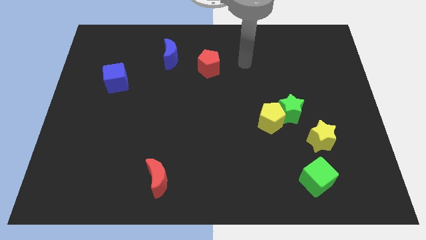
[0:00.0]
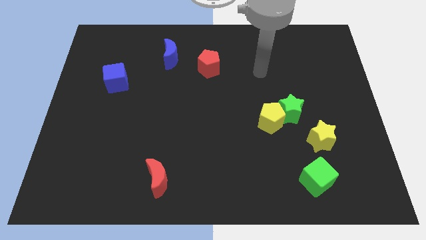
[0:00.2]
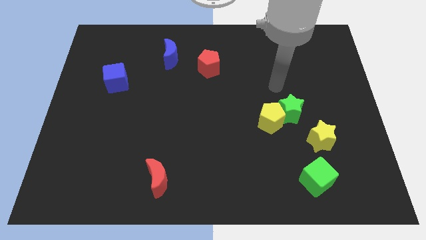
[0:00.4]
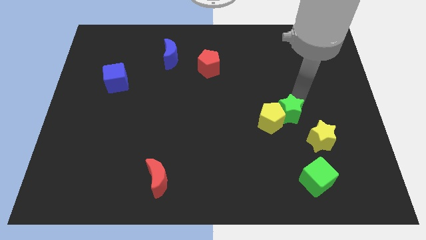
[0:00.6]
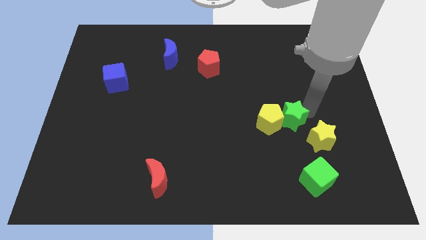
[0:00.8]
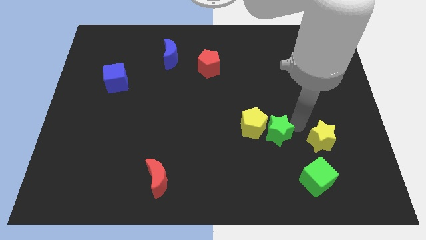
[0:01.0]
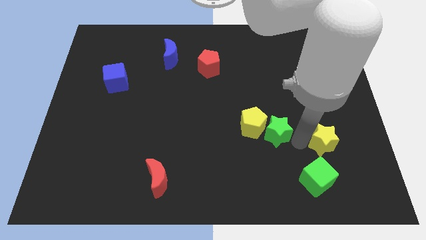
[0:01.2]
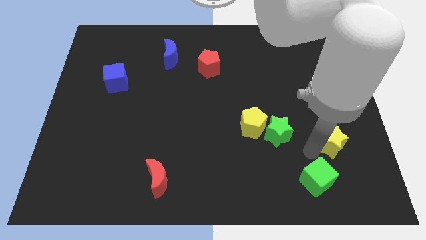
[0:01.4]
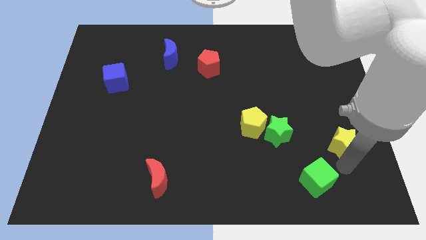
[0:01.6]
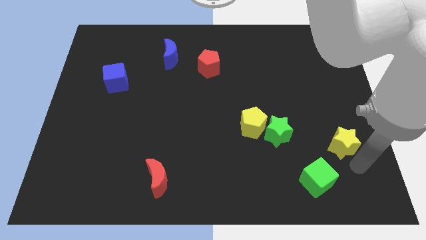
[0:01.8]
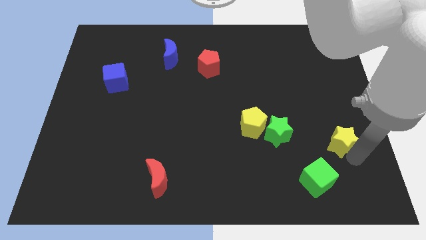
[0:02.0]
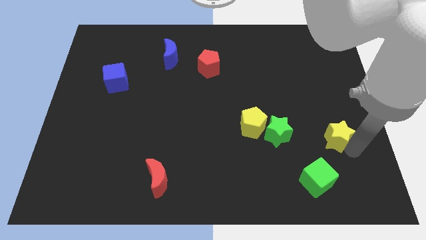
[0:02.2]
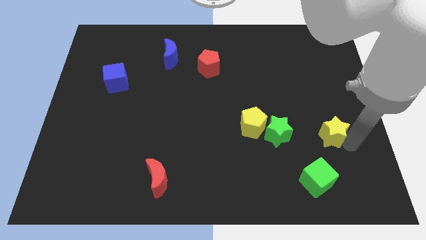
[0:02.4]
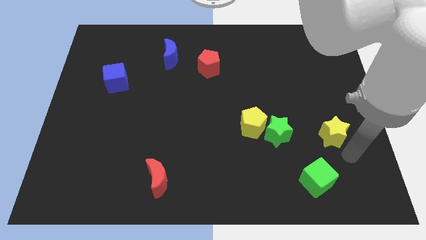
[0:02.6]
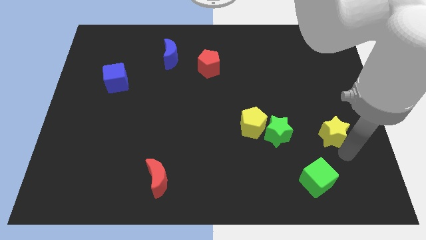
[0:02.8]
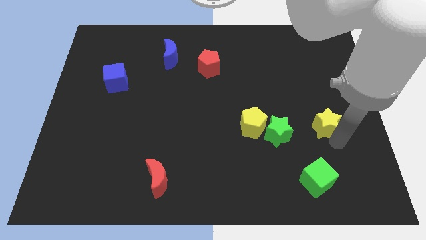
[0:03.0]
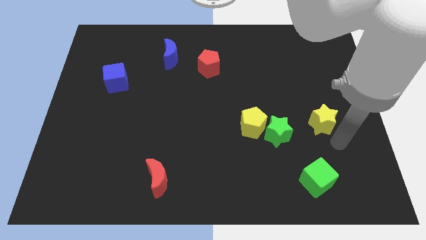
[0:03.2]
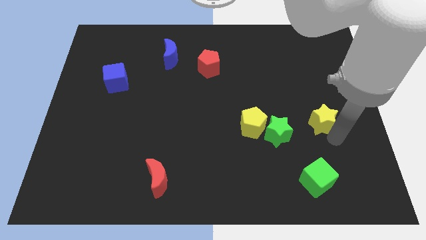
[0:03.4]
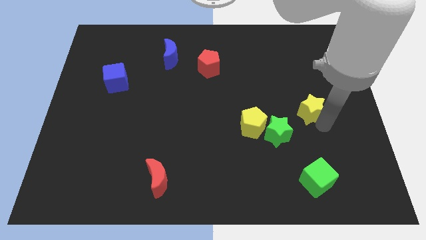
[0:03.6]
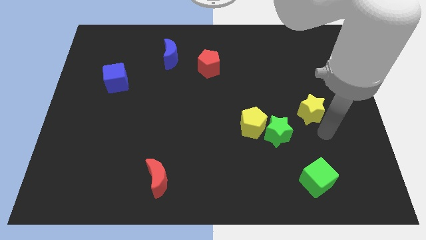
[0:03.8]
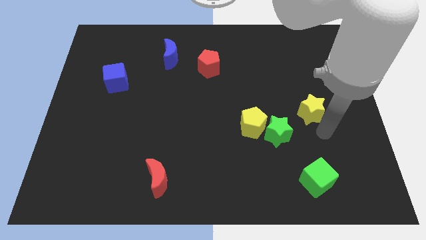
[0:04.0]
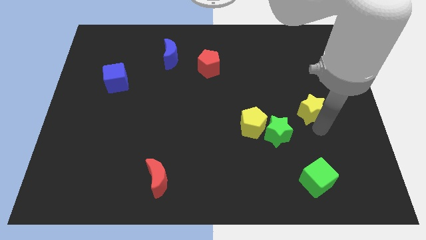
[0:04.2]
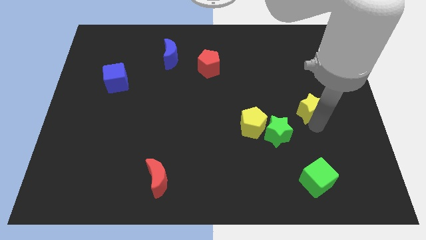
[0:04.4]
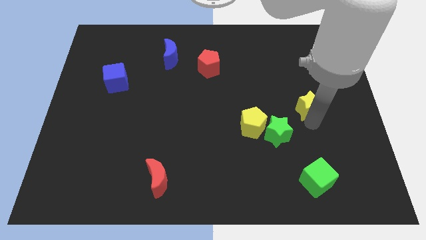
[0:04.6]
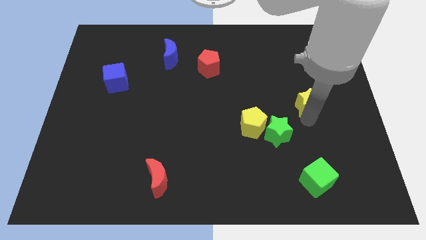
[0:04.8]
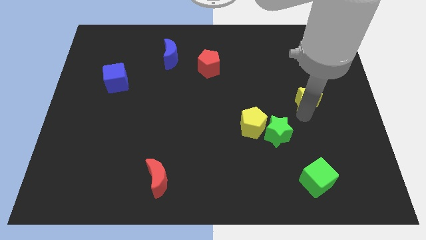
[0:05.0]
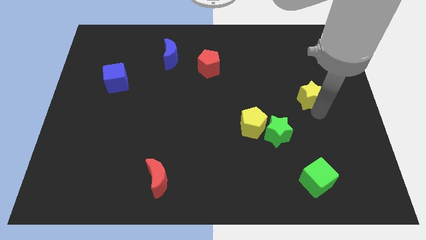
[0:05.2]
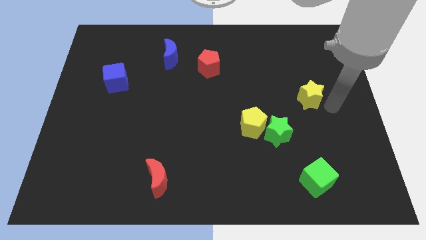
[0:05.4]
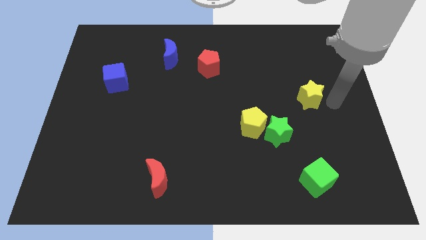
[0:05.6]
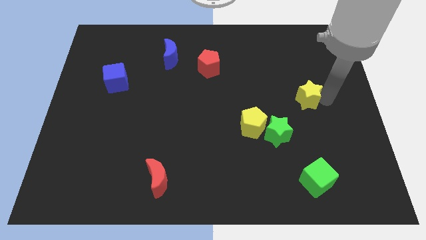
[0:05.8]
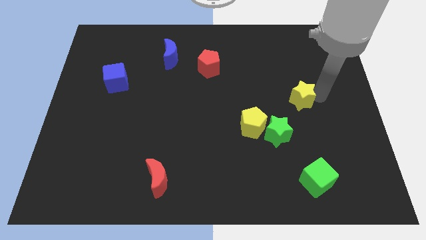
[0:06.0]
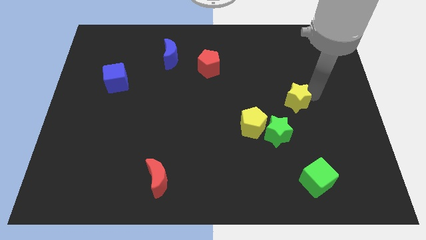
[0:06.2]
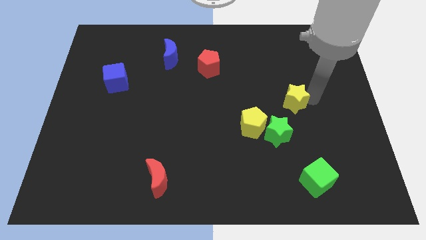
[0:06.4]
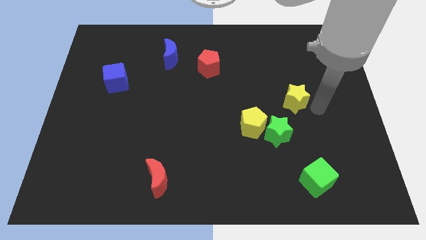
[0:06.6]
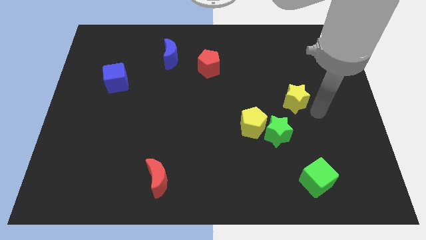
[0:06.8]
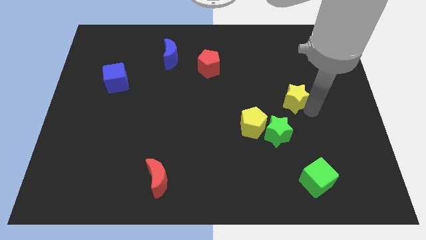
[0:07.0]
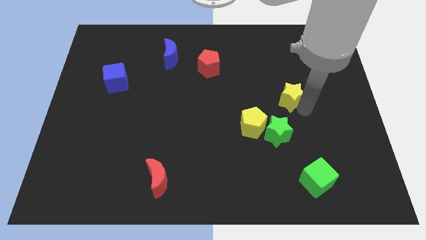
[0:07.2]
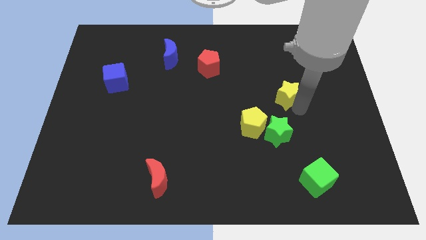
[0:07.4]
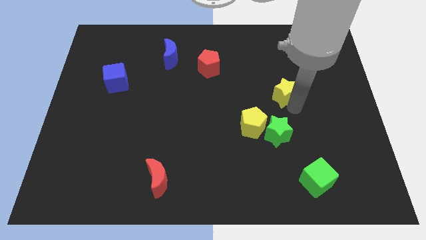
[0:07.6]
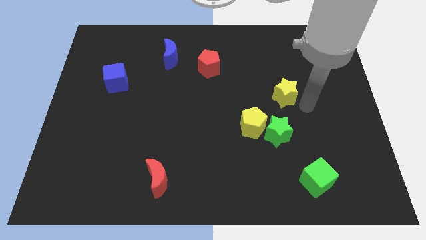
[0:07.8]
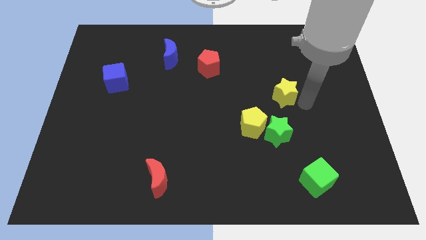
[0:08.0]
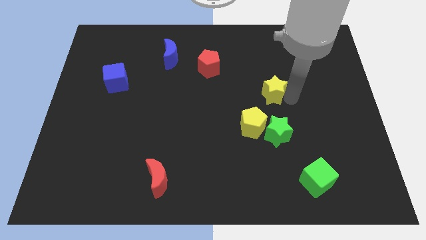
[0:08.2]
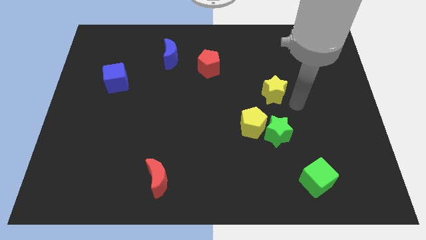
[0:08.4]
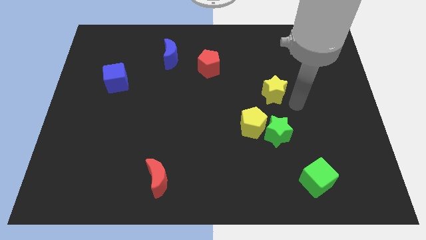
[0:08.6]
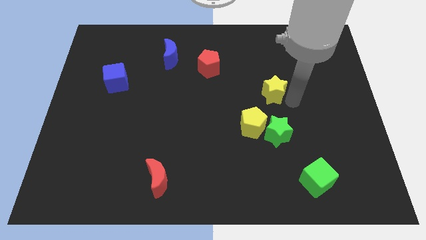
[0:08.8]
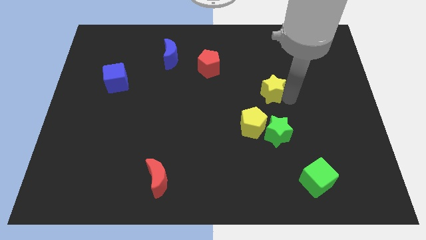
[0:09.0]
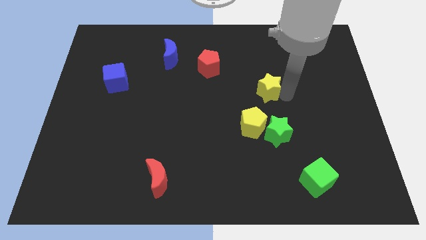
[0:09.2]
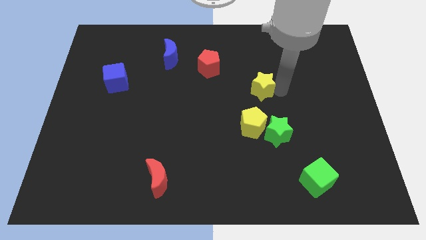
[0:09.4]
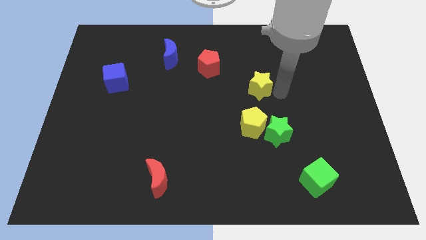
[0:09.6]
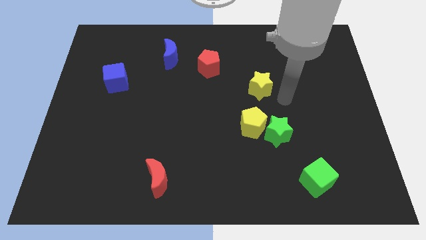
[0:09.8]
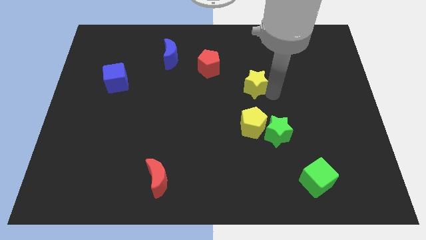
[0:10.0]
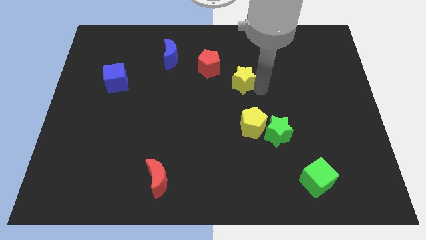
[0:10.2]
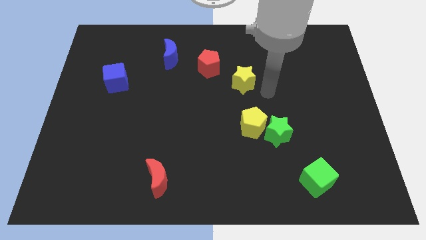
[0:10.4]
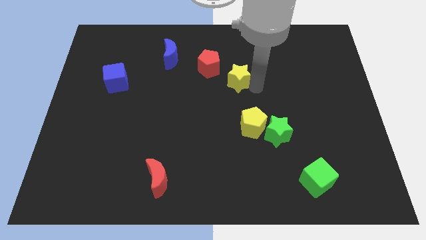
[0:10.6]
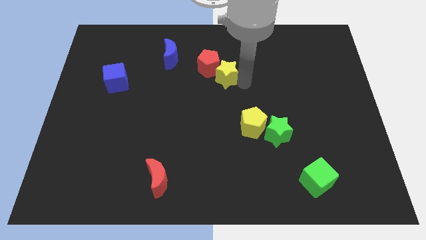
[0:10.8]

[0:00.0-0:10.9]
push the yellow star towards the red pentagon

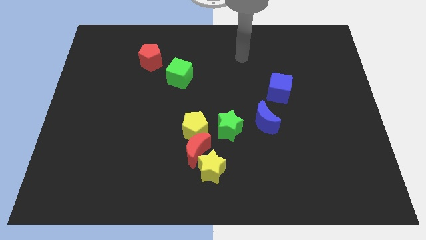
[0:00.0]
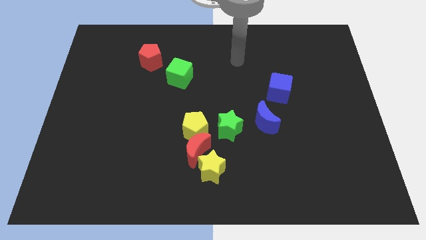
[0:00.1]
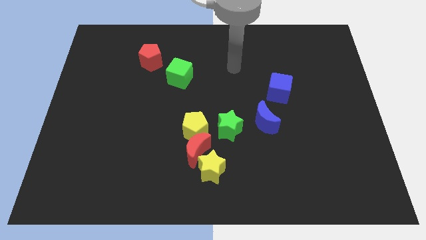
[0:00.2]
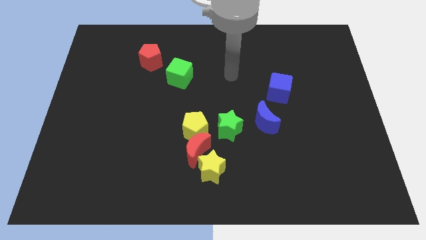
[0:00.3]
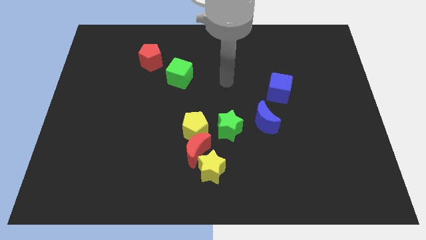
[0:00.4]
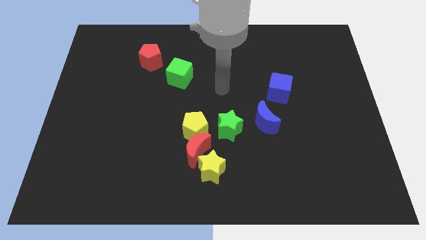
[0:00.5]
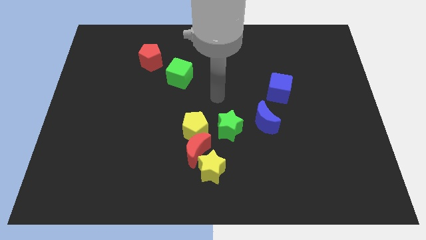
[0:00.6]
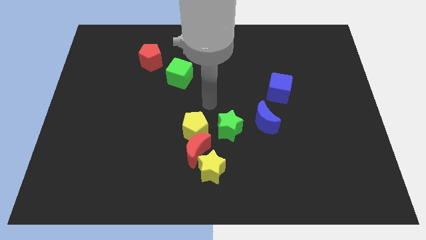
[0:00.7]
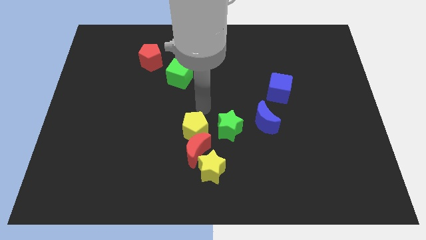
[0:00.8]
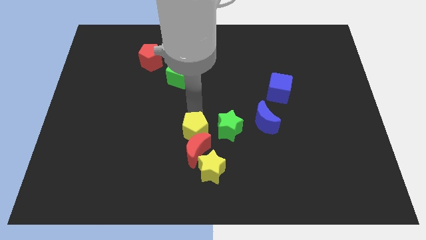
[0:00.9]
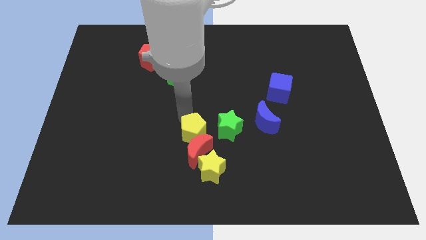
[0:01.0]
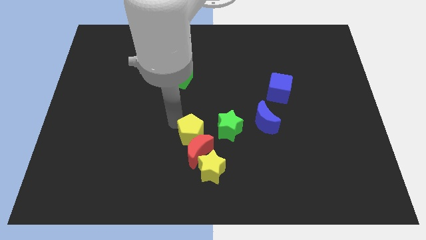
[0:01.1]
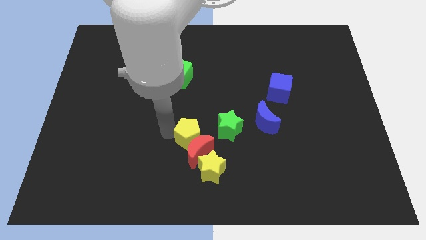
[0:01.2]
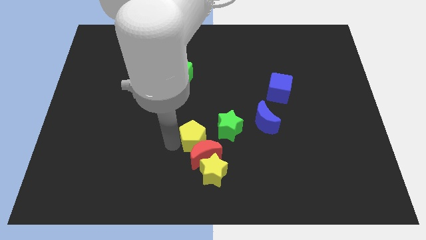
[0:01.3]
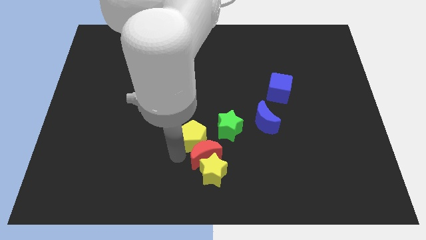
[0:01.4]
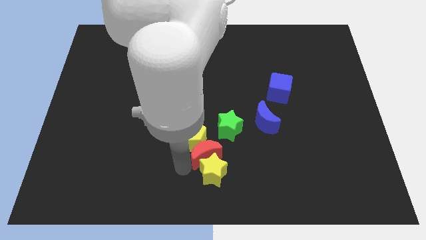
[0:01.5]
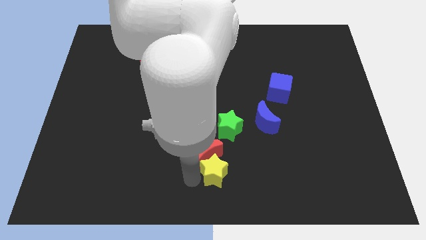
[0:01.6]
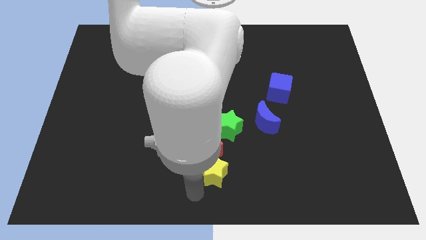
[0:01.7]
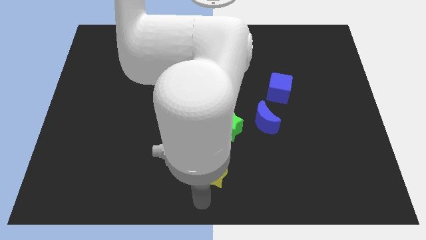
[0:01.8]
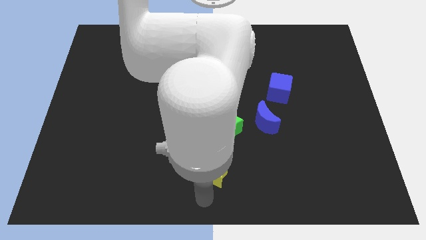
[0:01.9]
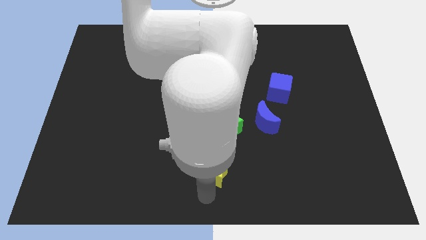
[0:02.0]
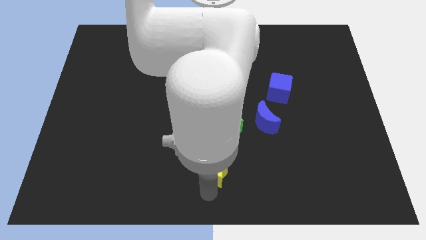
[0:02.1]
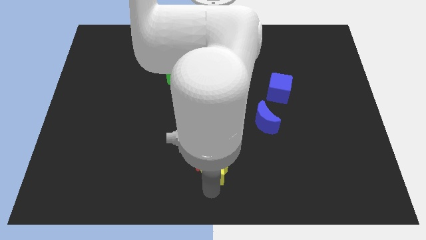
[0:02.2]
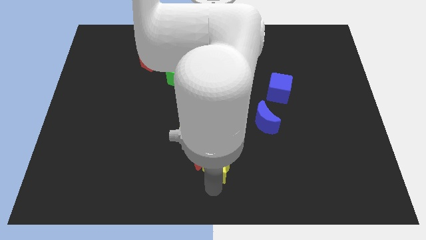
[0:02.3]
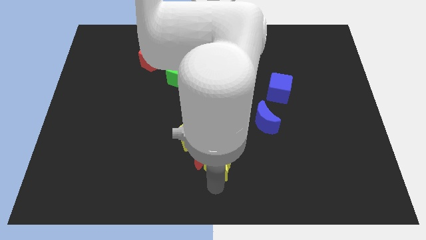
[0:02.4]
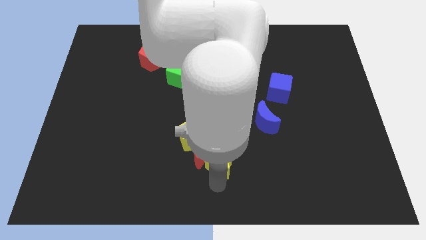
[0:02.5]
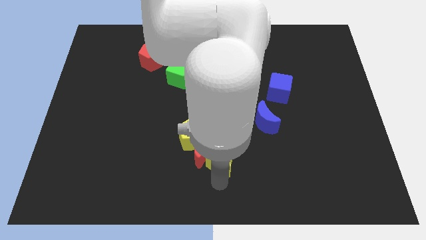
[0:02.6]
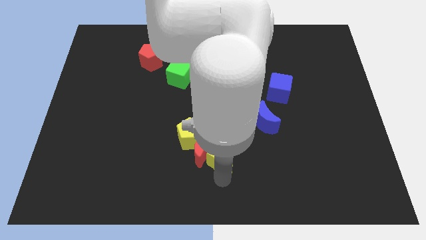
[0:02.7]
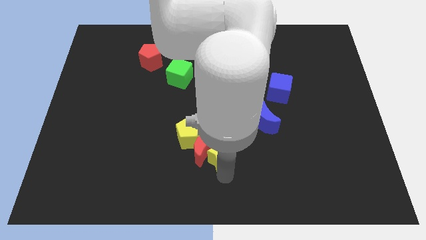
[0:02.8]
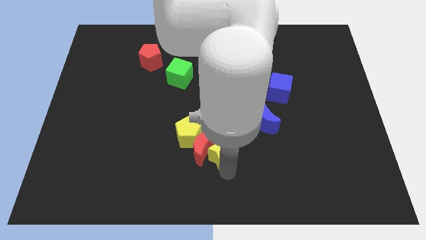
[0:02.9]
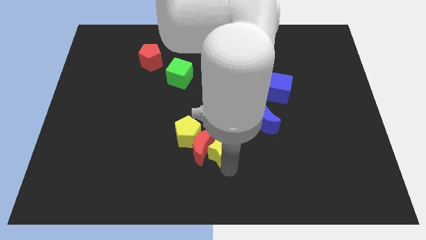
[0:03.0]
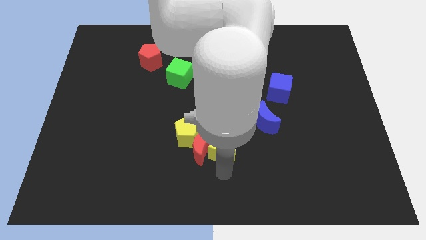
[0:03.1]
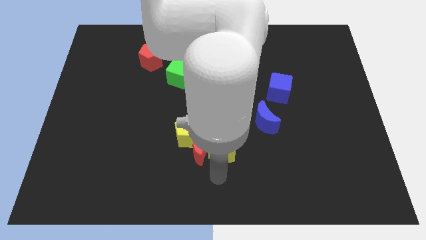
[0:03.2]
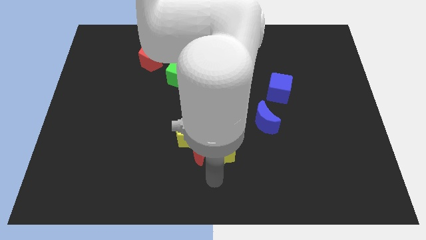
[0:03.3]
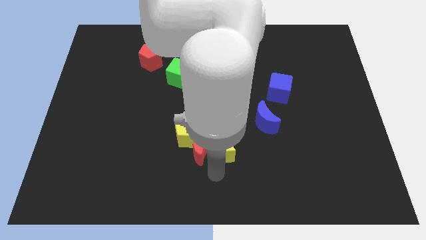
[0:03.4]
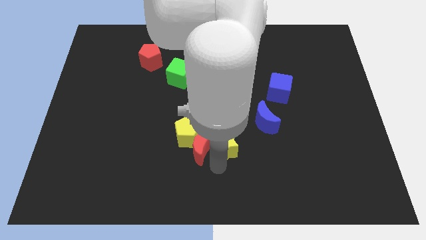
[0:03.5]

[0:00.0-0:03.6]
move the yellow star close to the green star
